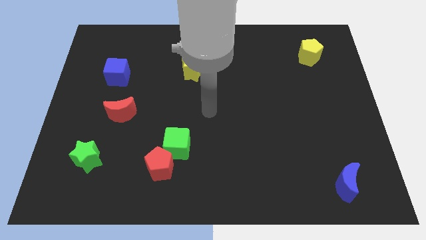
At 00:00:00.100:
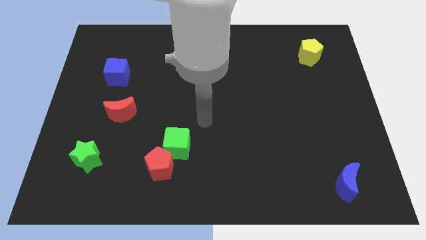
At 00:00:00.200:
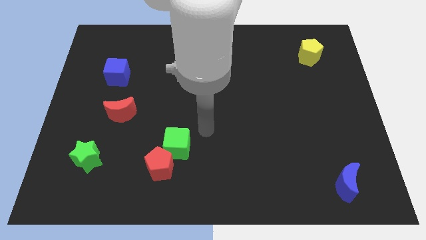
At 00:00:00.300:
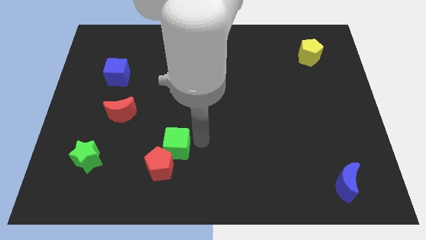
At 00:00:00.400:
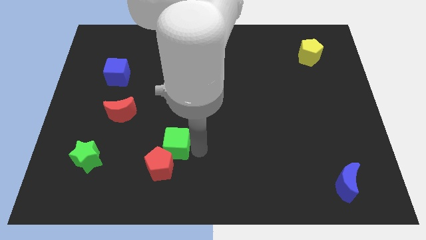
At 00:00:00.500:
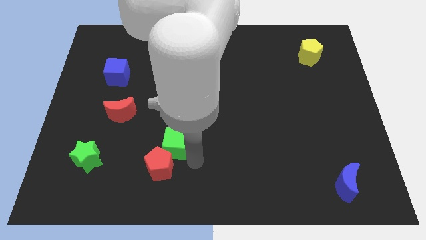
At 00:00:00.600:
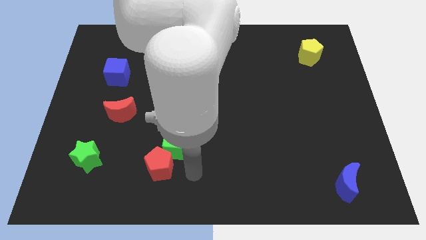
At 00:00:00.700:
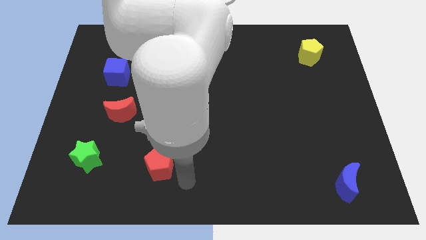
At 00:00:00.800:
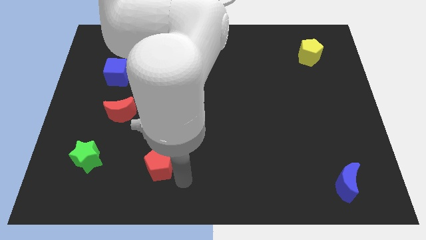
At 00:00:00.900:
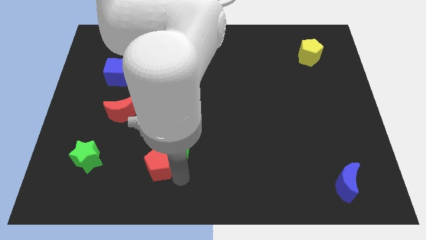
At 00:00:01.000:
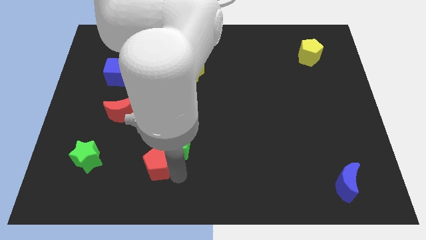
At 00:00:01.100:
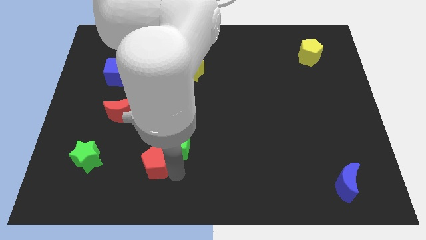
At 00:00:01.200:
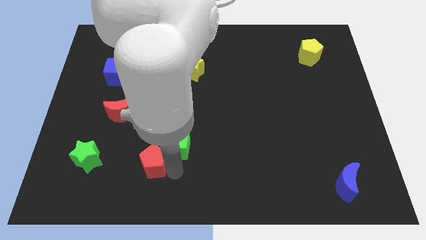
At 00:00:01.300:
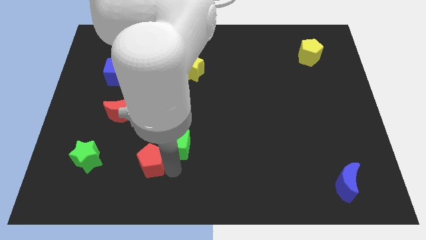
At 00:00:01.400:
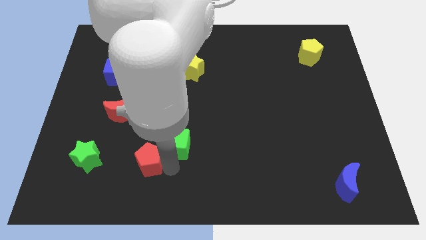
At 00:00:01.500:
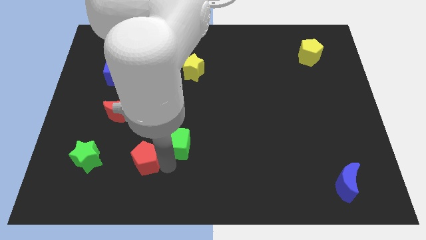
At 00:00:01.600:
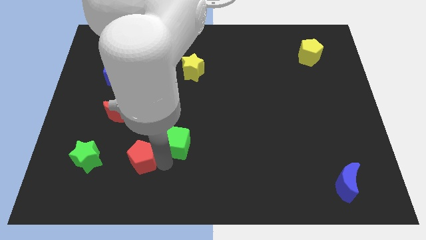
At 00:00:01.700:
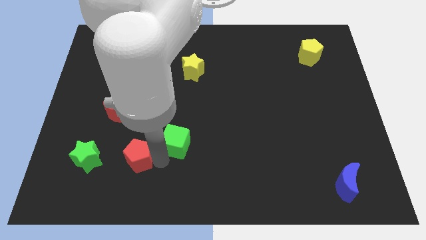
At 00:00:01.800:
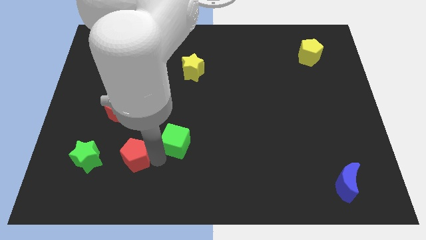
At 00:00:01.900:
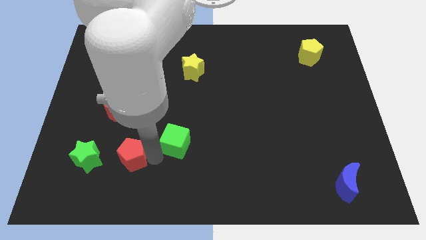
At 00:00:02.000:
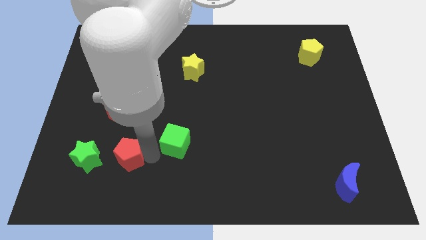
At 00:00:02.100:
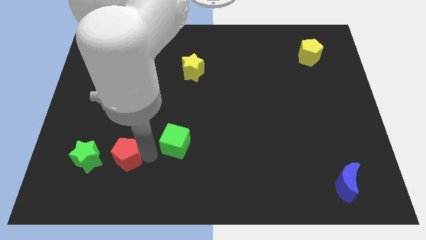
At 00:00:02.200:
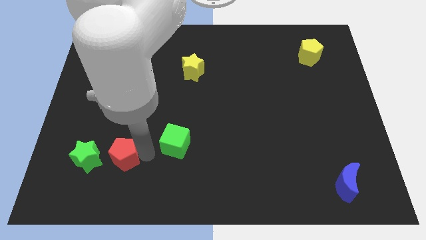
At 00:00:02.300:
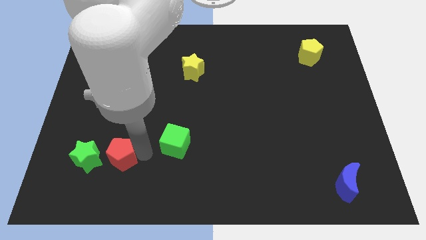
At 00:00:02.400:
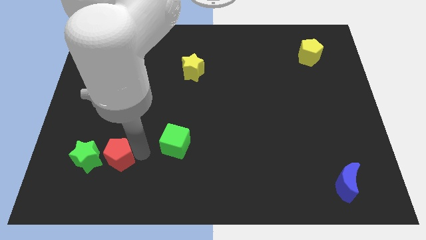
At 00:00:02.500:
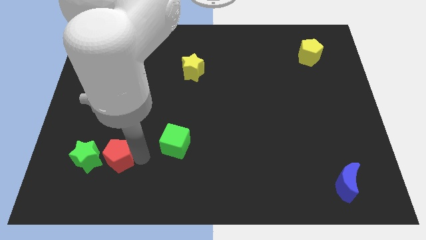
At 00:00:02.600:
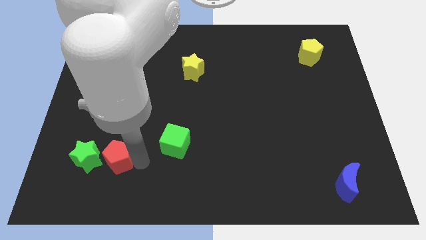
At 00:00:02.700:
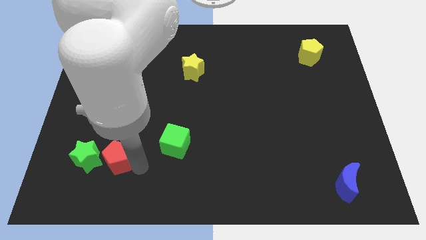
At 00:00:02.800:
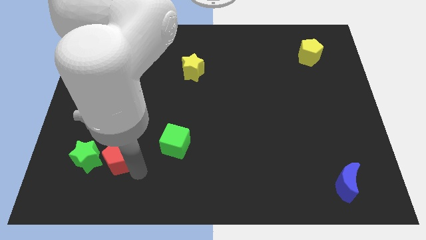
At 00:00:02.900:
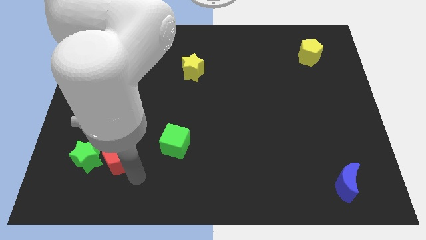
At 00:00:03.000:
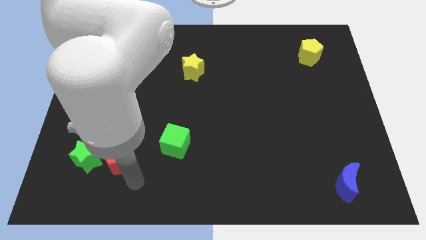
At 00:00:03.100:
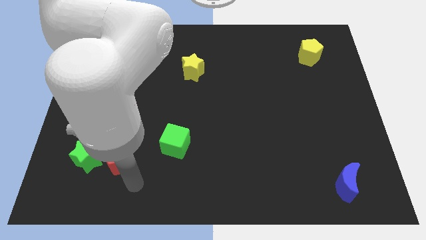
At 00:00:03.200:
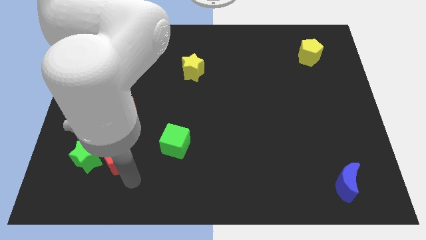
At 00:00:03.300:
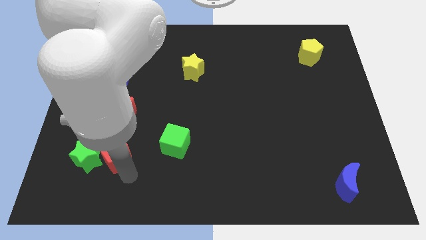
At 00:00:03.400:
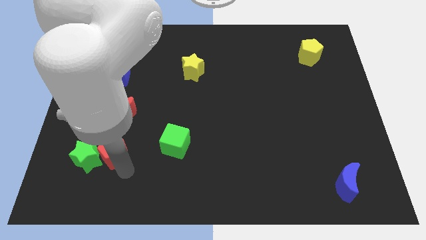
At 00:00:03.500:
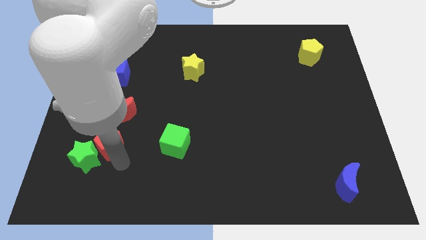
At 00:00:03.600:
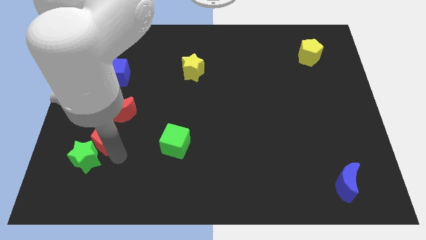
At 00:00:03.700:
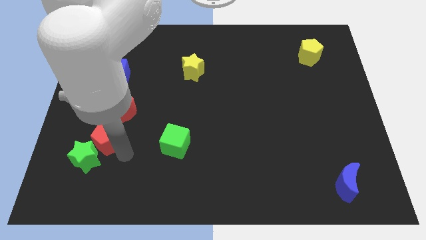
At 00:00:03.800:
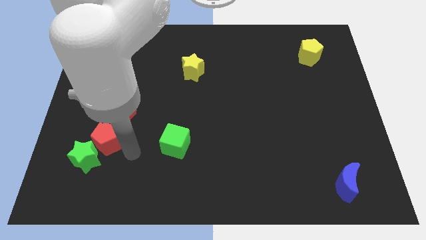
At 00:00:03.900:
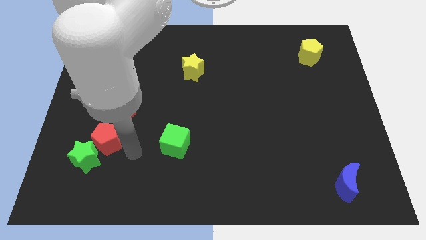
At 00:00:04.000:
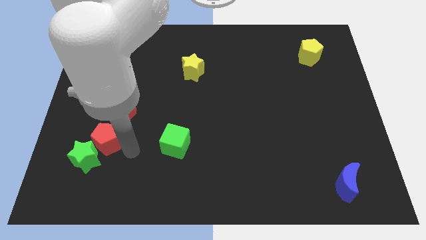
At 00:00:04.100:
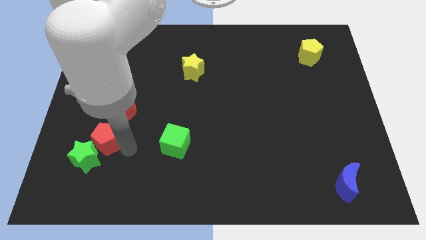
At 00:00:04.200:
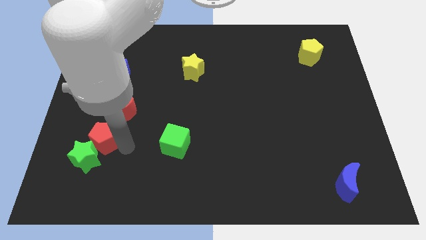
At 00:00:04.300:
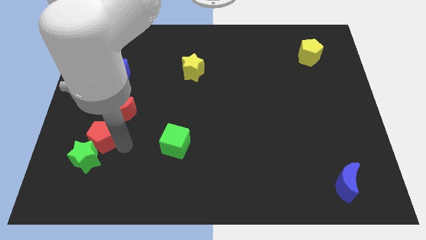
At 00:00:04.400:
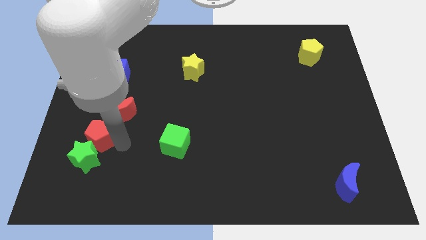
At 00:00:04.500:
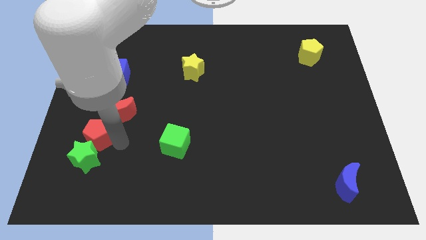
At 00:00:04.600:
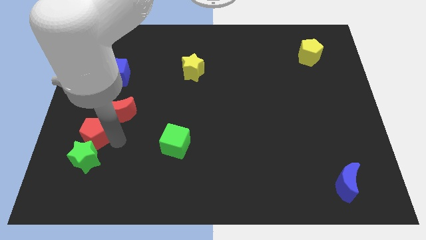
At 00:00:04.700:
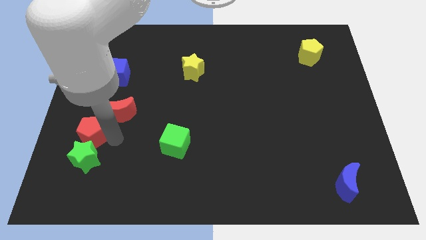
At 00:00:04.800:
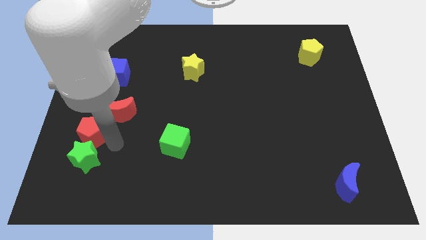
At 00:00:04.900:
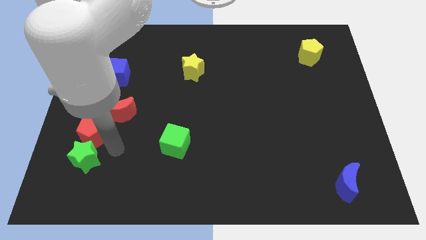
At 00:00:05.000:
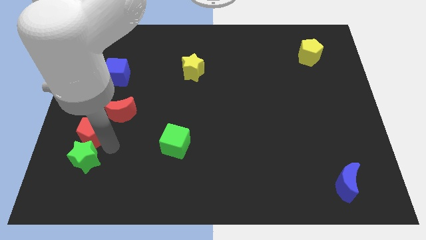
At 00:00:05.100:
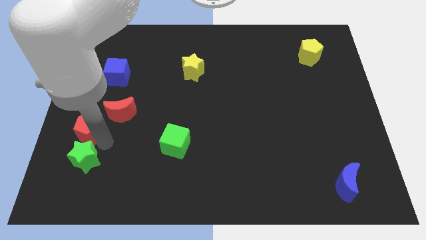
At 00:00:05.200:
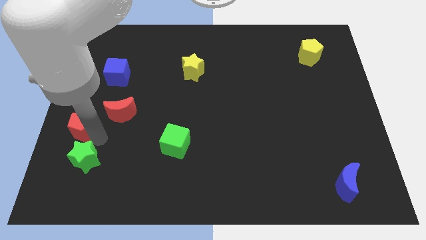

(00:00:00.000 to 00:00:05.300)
put the red pentagon to the left side of the board

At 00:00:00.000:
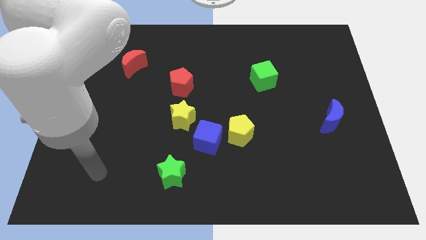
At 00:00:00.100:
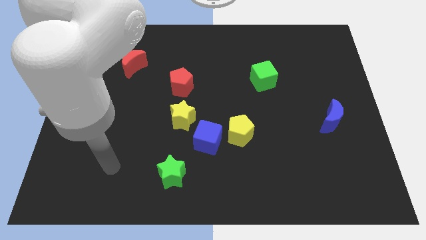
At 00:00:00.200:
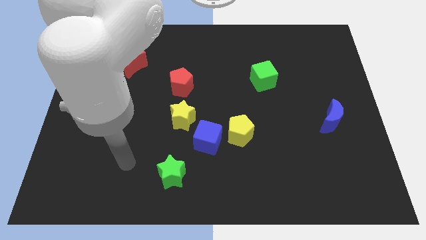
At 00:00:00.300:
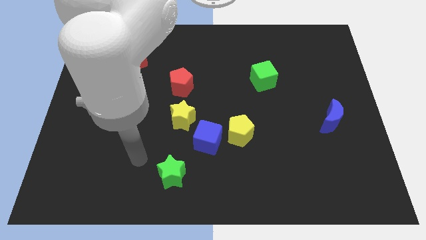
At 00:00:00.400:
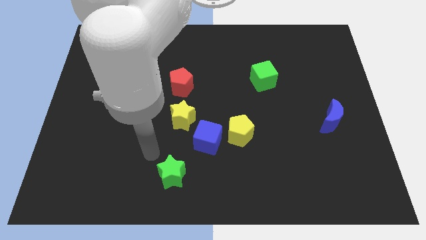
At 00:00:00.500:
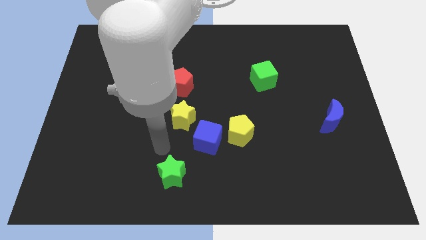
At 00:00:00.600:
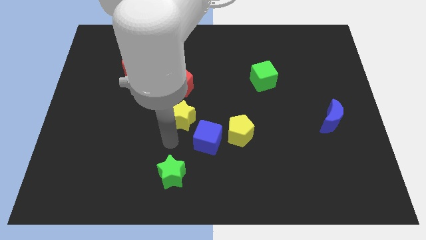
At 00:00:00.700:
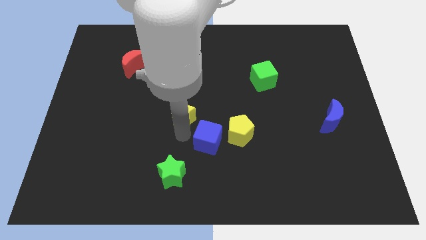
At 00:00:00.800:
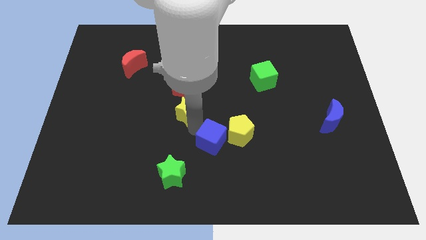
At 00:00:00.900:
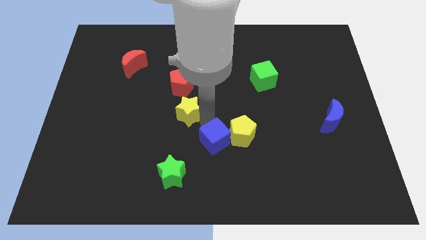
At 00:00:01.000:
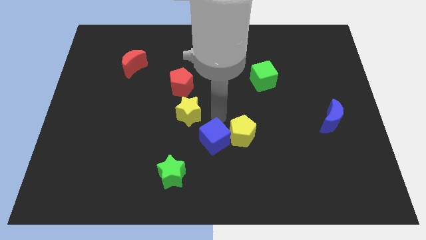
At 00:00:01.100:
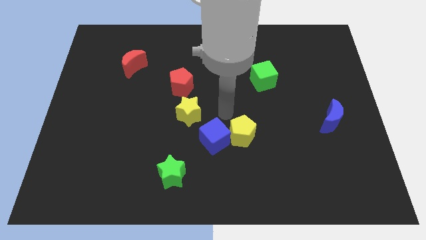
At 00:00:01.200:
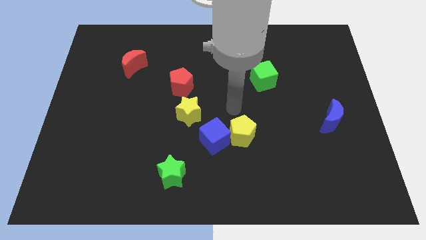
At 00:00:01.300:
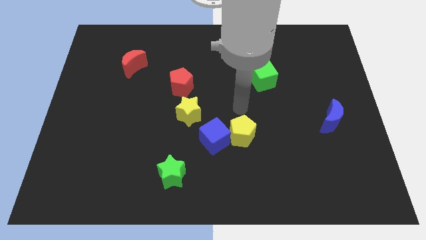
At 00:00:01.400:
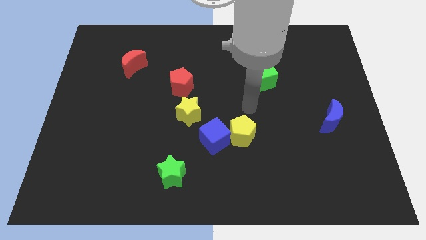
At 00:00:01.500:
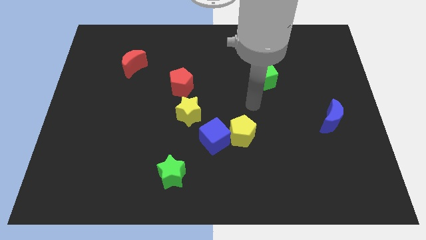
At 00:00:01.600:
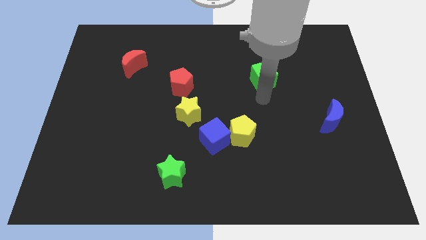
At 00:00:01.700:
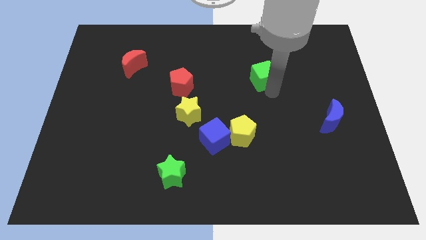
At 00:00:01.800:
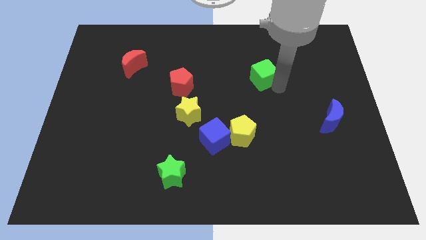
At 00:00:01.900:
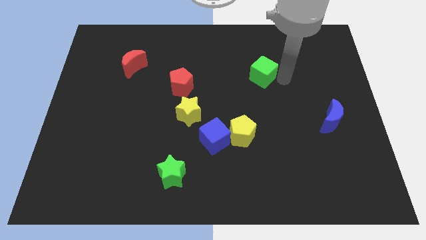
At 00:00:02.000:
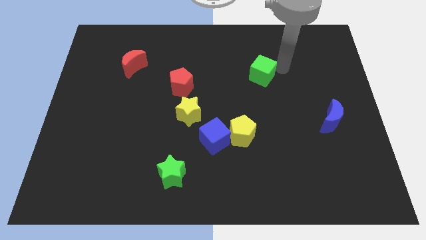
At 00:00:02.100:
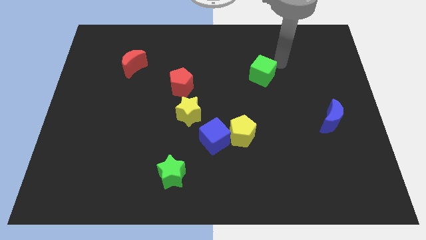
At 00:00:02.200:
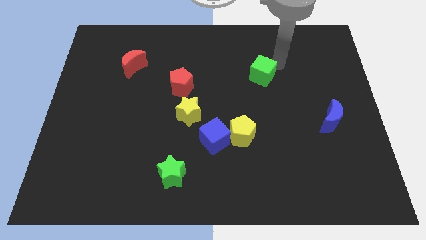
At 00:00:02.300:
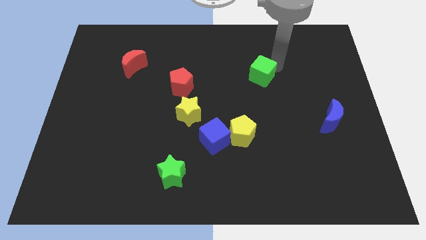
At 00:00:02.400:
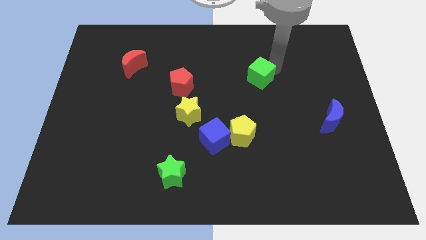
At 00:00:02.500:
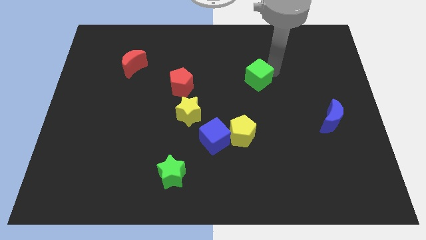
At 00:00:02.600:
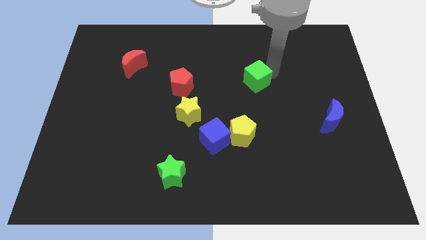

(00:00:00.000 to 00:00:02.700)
move the green cube to the middle
